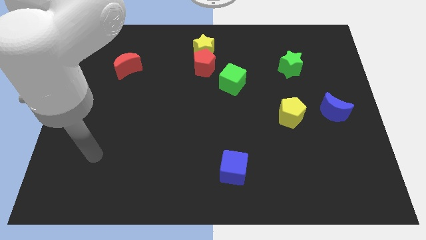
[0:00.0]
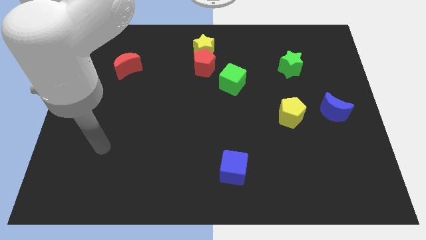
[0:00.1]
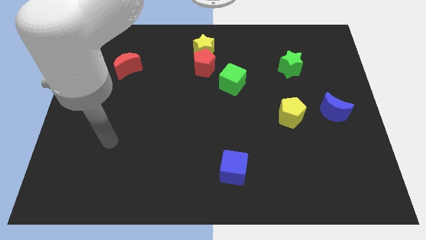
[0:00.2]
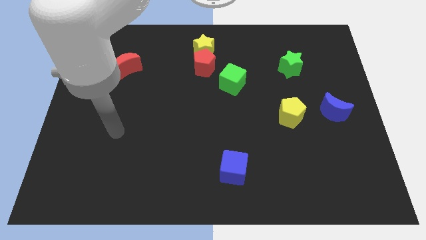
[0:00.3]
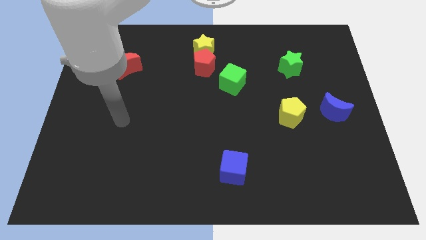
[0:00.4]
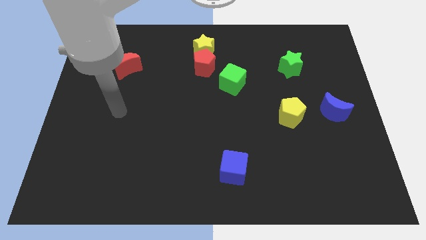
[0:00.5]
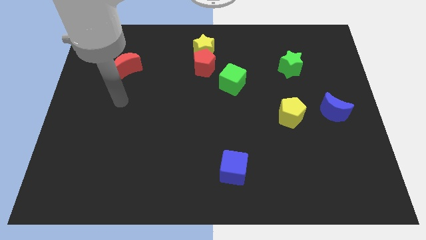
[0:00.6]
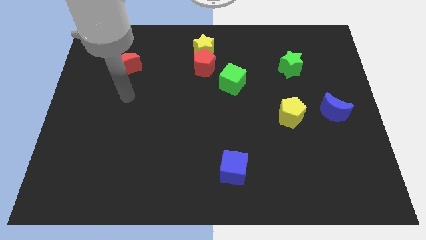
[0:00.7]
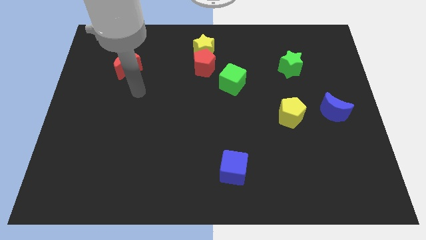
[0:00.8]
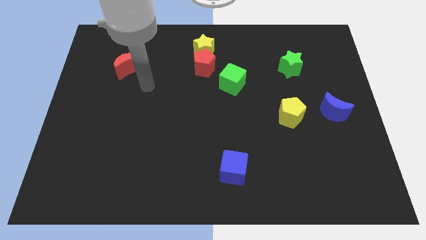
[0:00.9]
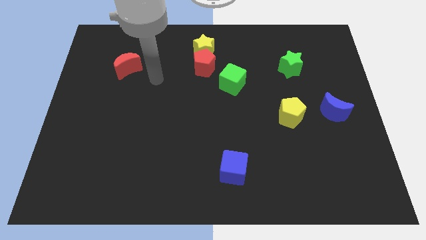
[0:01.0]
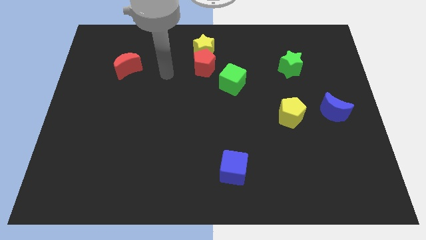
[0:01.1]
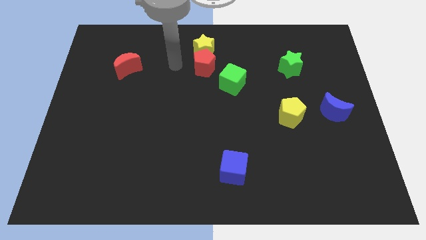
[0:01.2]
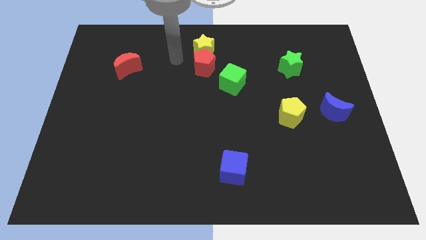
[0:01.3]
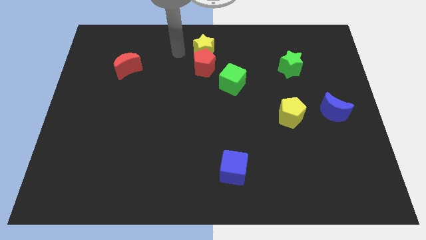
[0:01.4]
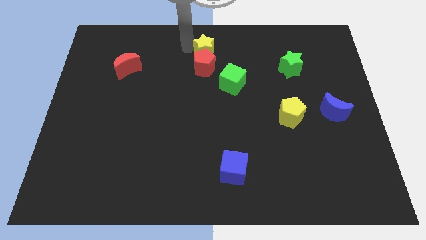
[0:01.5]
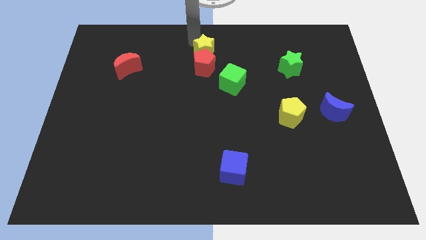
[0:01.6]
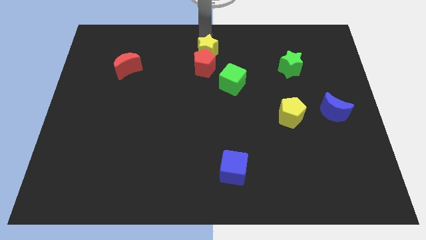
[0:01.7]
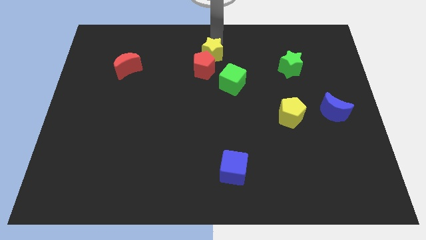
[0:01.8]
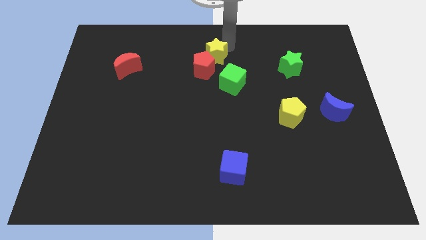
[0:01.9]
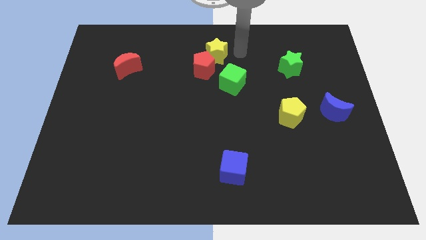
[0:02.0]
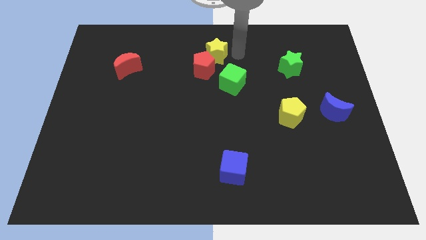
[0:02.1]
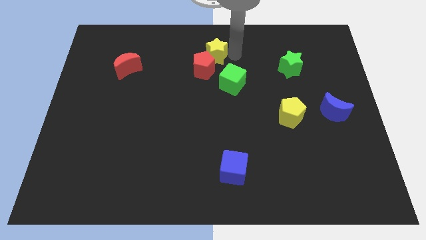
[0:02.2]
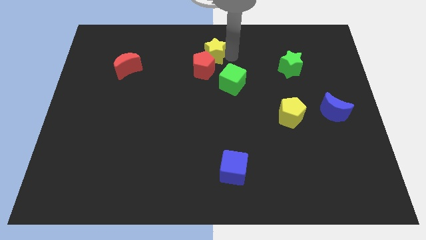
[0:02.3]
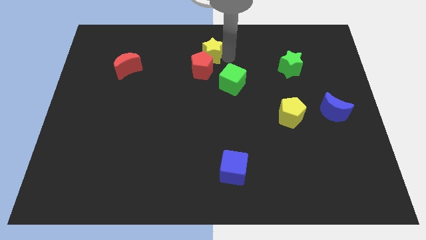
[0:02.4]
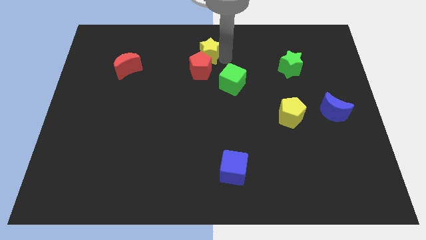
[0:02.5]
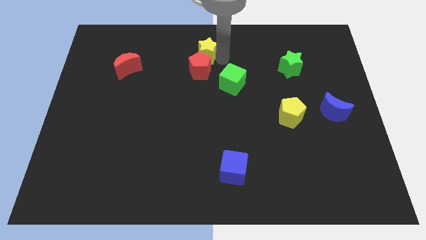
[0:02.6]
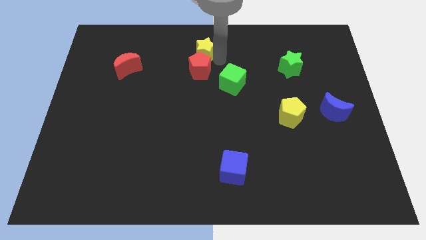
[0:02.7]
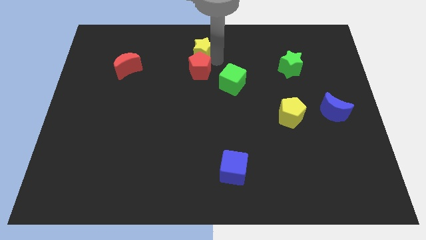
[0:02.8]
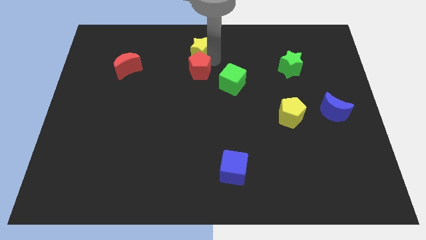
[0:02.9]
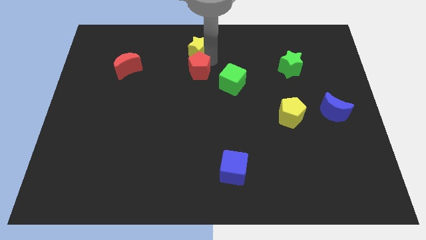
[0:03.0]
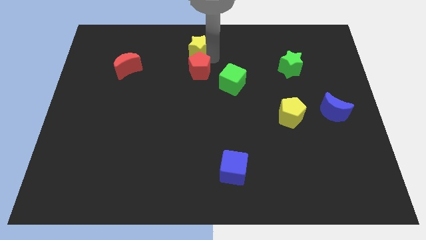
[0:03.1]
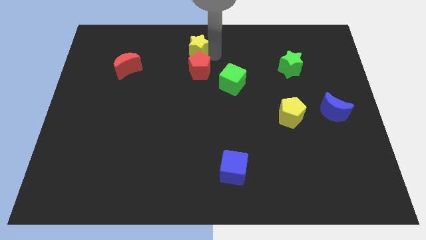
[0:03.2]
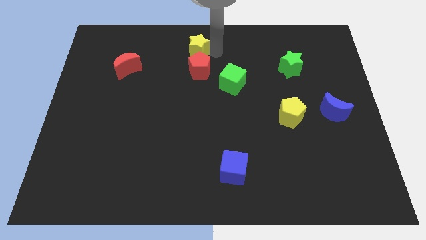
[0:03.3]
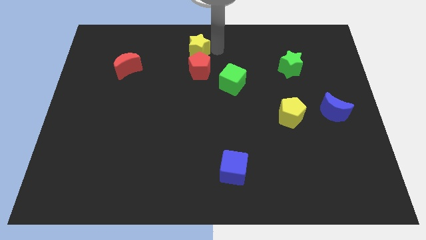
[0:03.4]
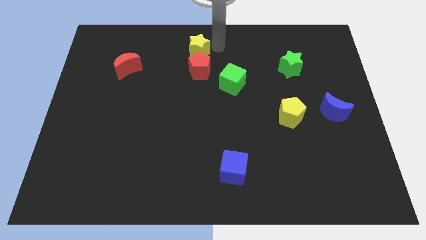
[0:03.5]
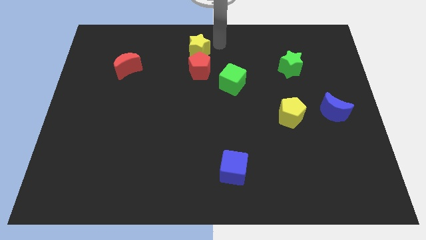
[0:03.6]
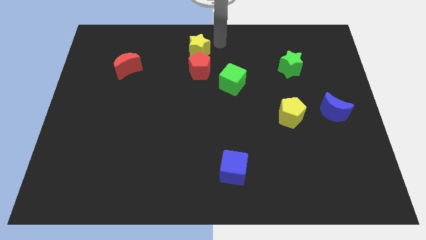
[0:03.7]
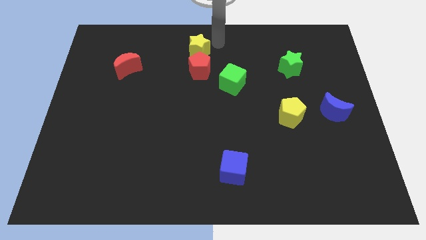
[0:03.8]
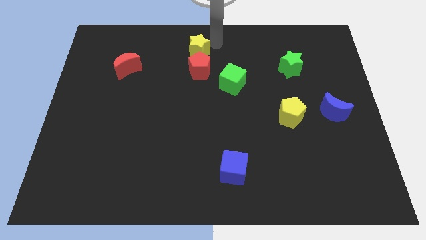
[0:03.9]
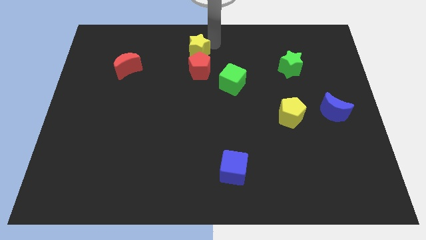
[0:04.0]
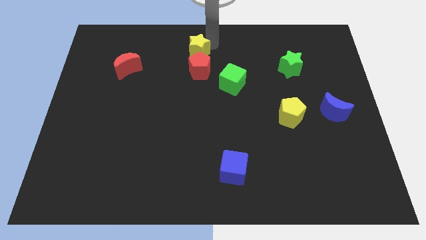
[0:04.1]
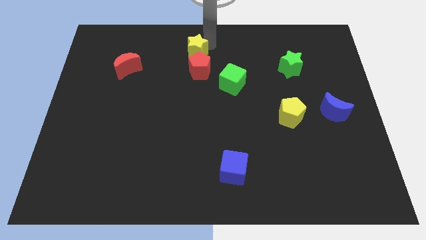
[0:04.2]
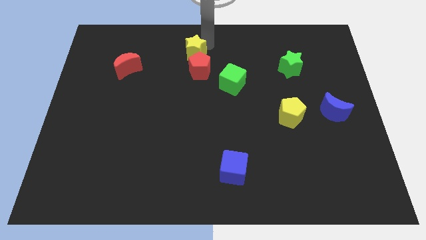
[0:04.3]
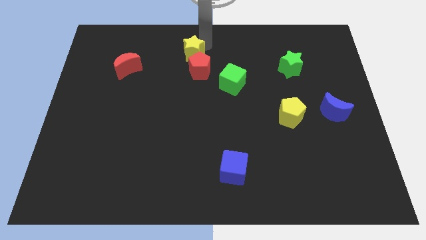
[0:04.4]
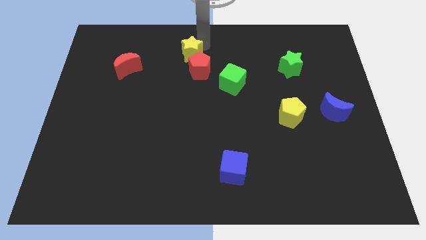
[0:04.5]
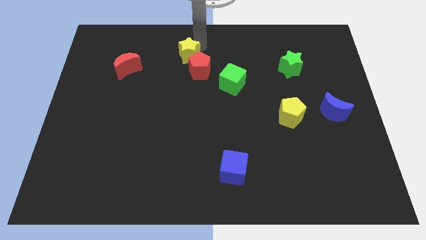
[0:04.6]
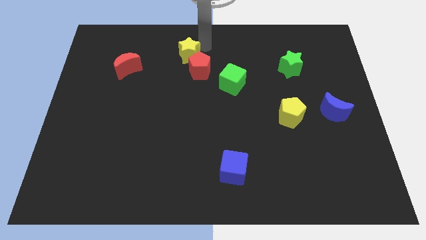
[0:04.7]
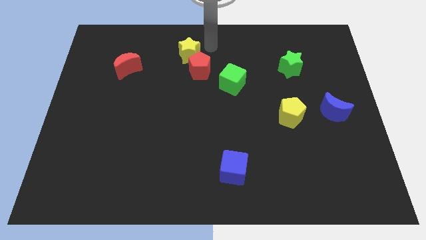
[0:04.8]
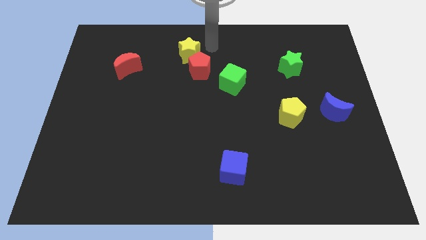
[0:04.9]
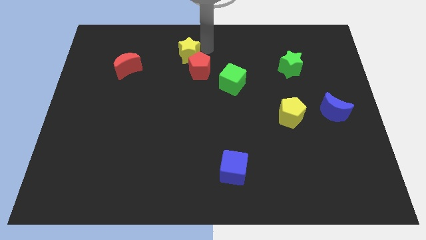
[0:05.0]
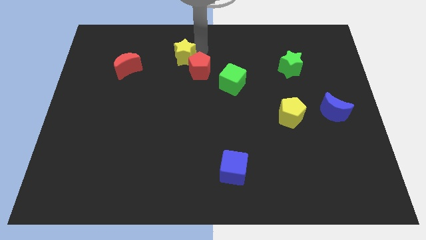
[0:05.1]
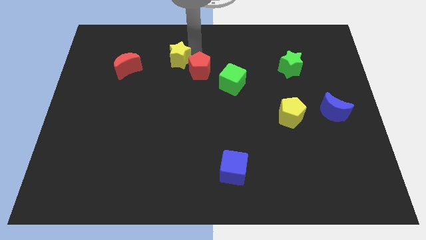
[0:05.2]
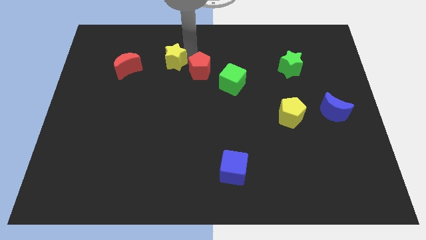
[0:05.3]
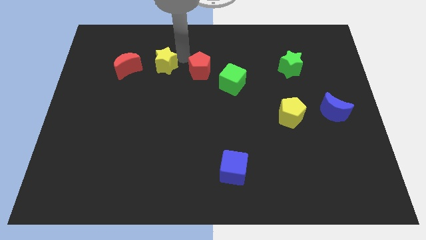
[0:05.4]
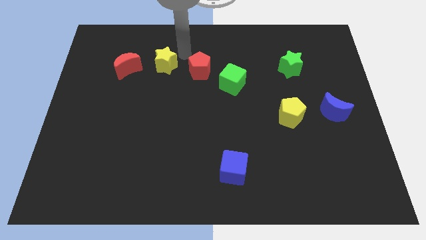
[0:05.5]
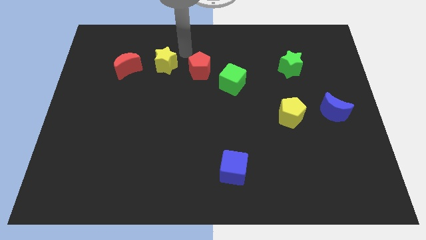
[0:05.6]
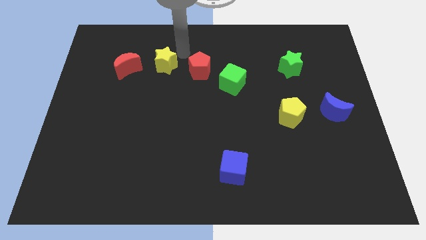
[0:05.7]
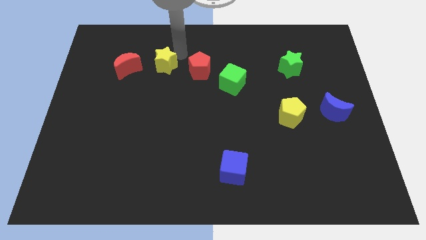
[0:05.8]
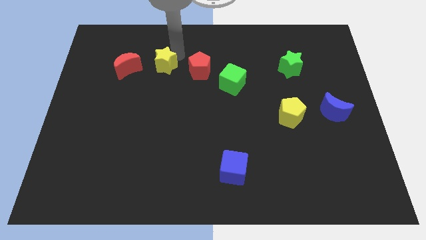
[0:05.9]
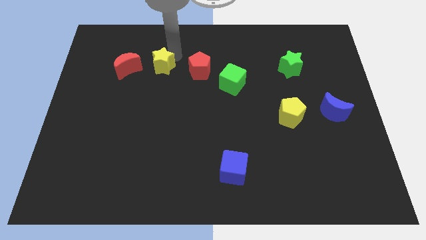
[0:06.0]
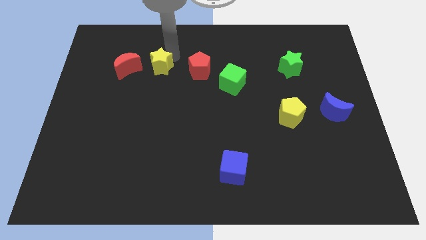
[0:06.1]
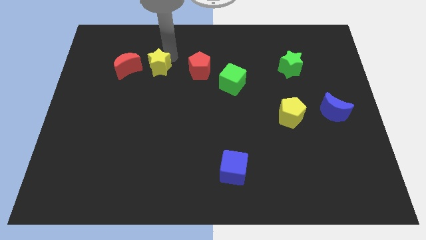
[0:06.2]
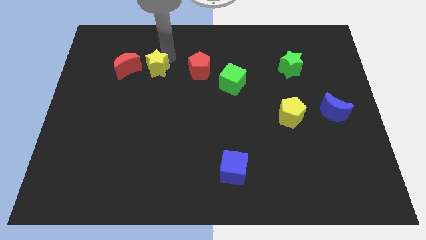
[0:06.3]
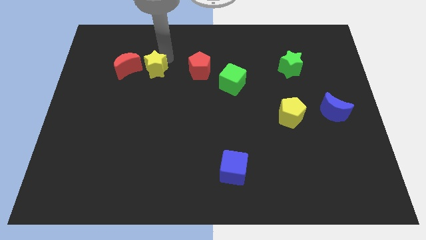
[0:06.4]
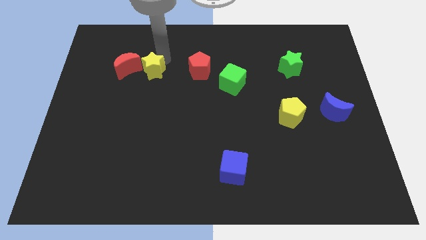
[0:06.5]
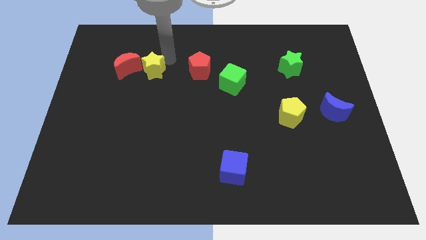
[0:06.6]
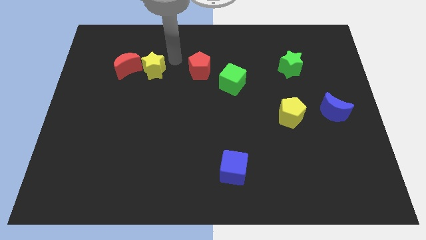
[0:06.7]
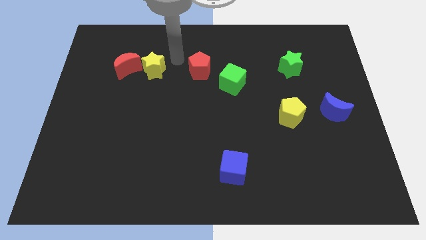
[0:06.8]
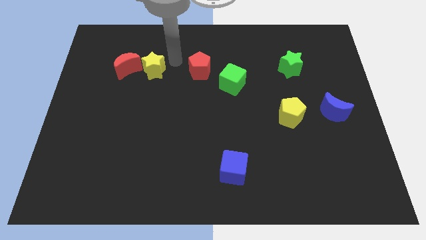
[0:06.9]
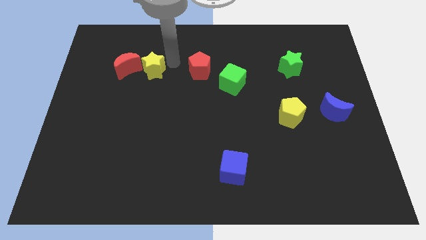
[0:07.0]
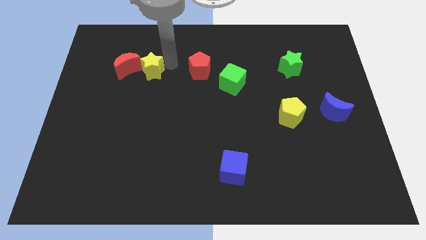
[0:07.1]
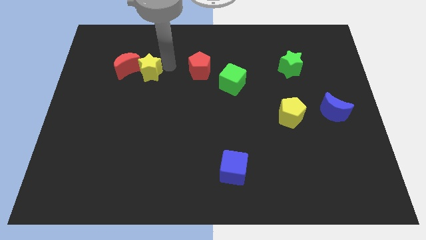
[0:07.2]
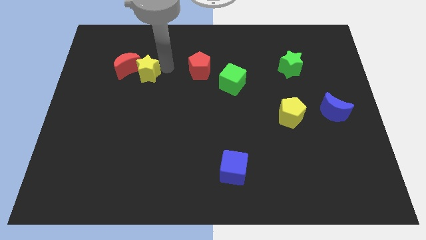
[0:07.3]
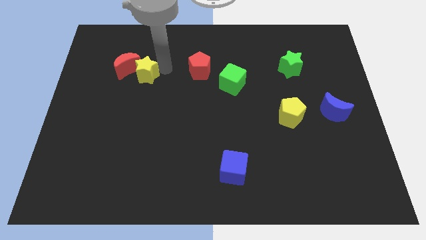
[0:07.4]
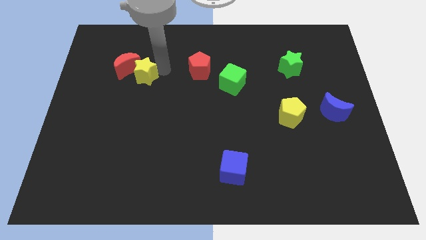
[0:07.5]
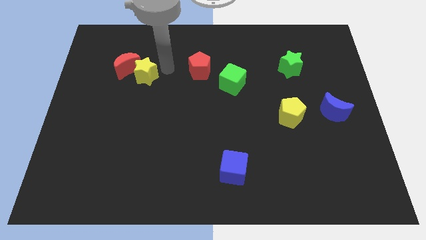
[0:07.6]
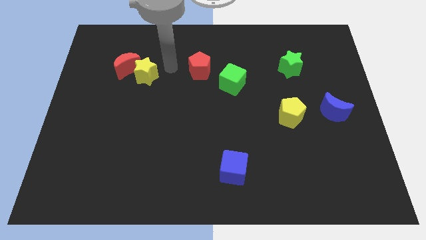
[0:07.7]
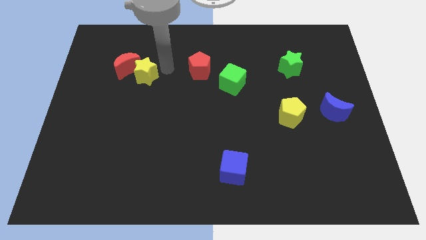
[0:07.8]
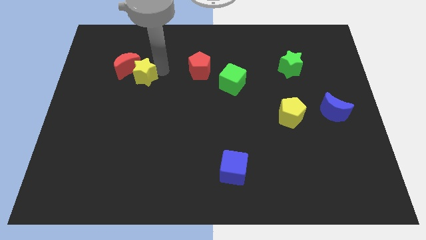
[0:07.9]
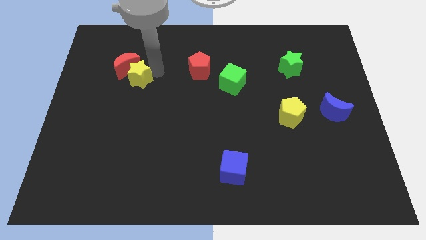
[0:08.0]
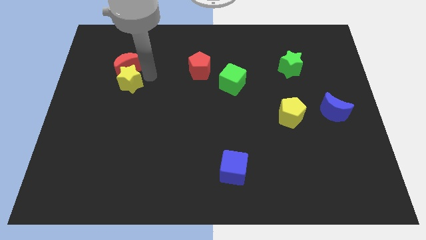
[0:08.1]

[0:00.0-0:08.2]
put the yellow star to the bottom left of the red moon
